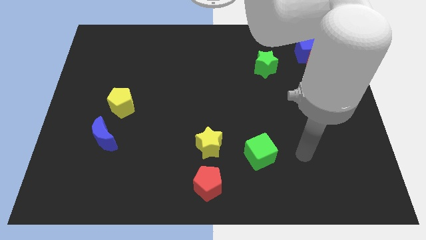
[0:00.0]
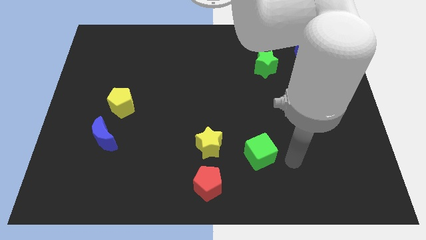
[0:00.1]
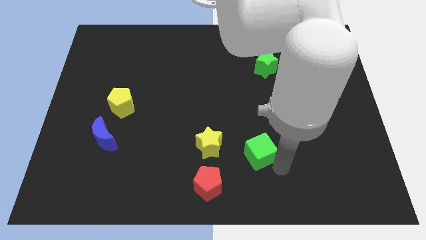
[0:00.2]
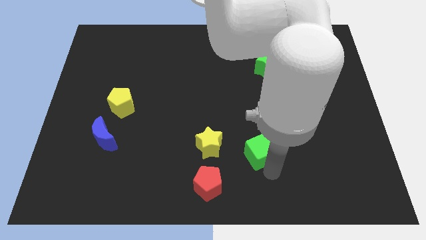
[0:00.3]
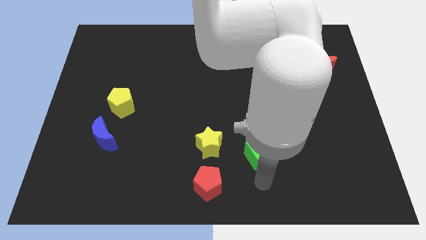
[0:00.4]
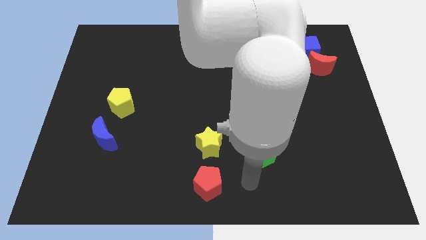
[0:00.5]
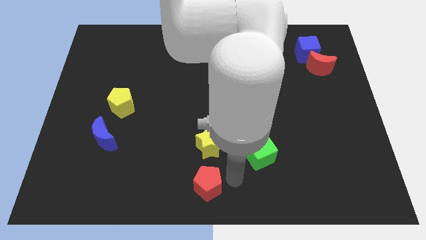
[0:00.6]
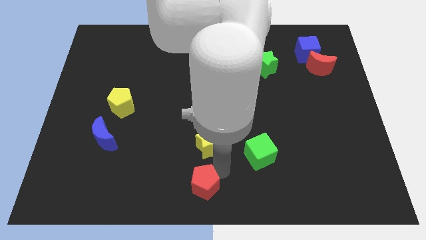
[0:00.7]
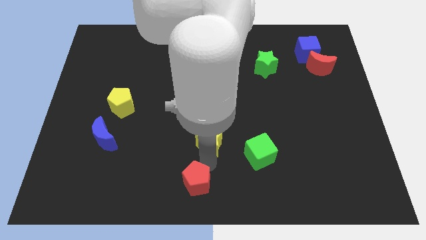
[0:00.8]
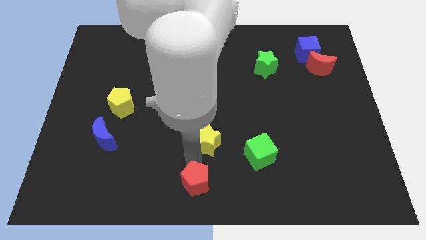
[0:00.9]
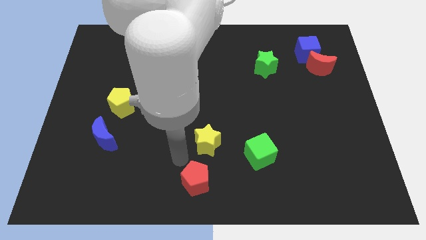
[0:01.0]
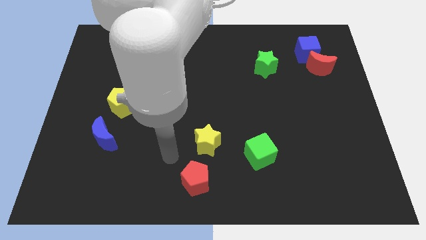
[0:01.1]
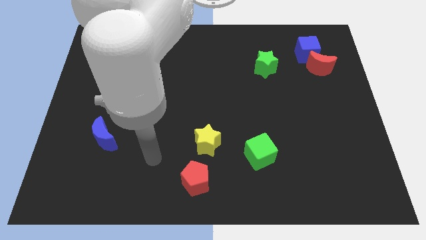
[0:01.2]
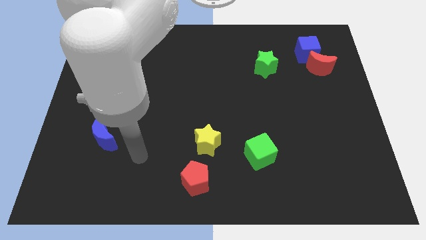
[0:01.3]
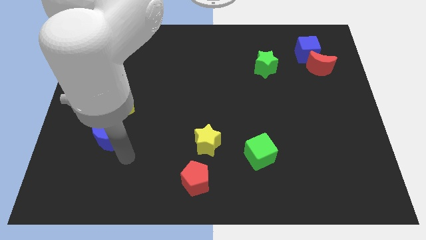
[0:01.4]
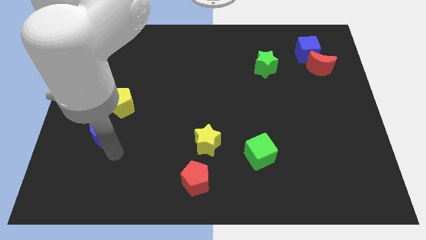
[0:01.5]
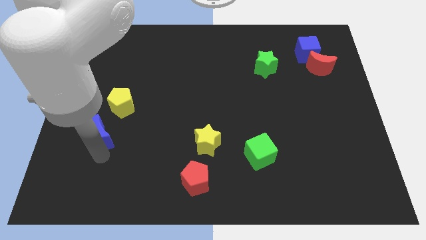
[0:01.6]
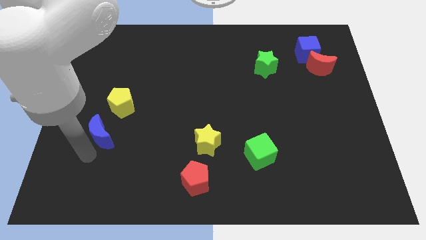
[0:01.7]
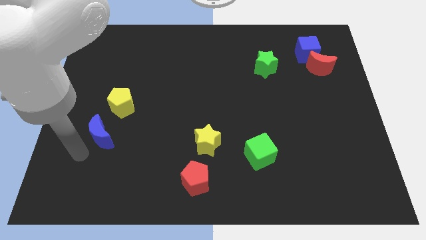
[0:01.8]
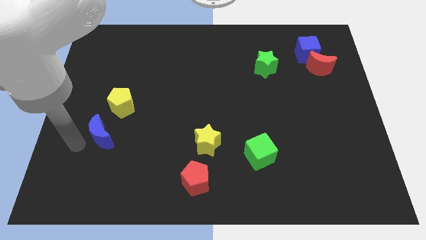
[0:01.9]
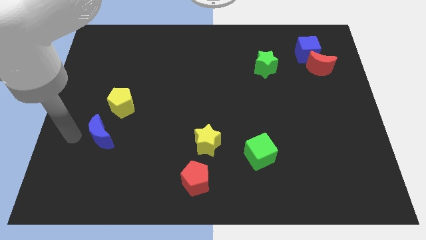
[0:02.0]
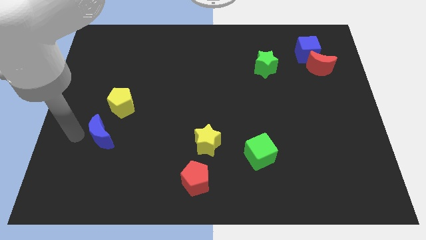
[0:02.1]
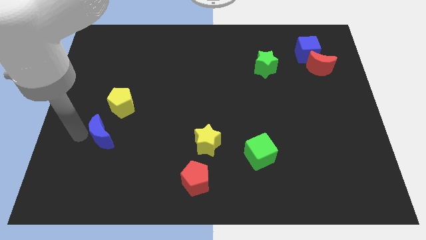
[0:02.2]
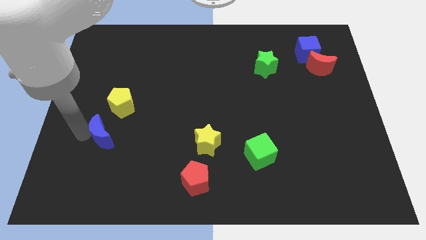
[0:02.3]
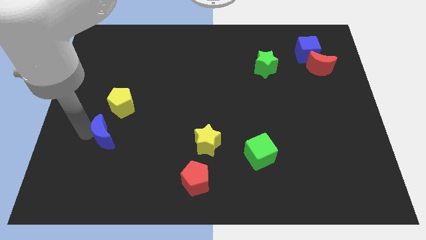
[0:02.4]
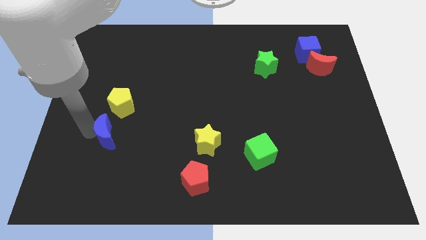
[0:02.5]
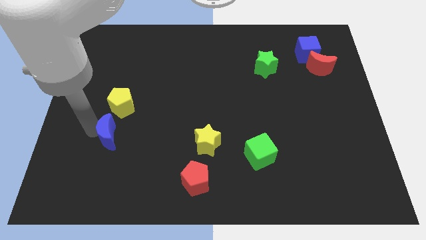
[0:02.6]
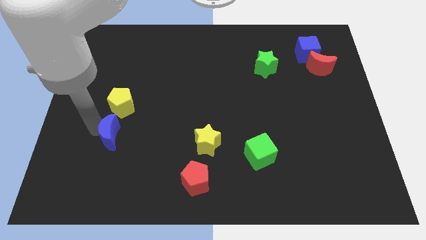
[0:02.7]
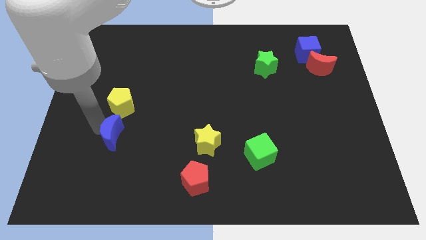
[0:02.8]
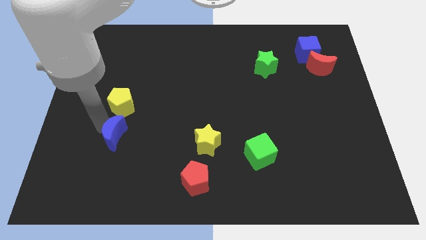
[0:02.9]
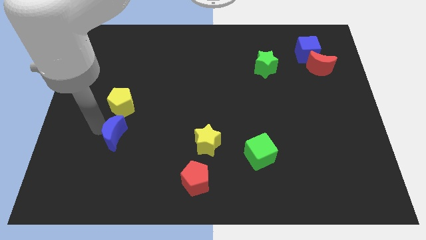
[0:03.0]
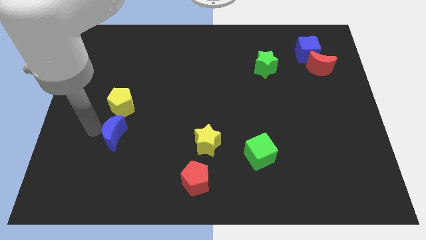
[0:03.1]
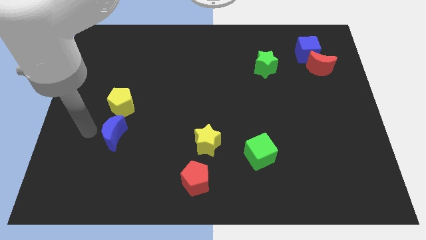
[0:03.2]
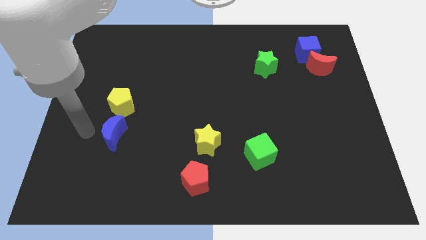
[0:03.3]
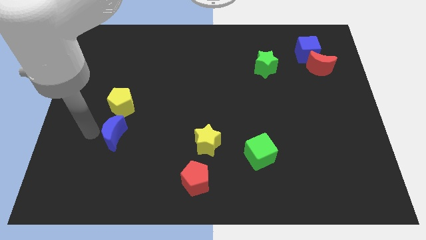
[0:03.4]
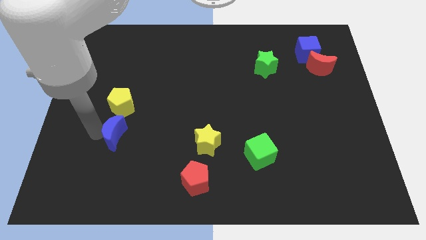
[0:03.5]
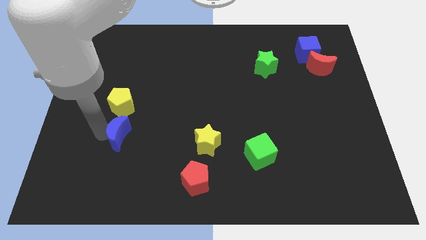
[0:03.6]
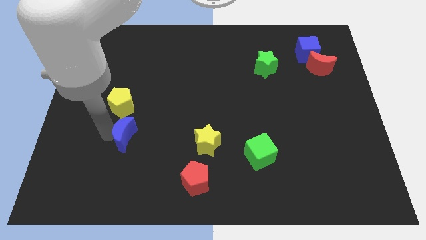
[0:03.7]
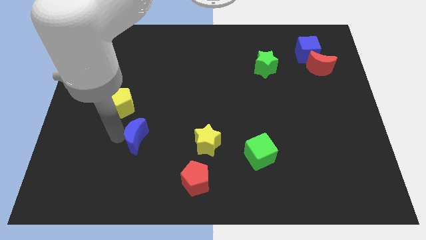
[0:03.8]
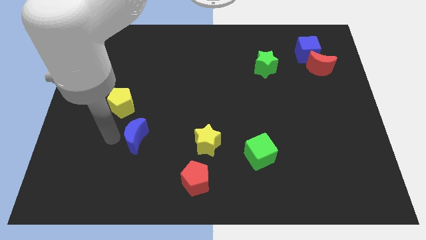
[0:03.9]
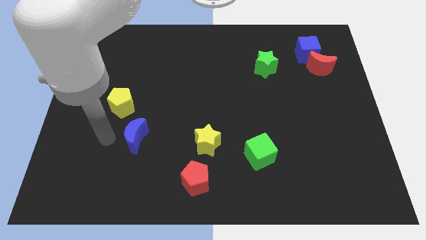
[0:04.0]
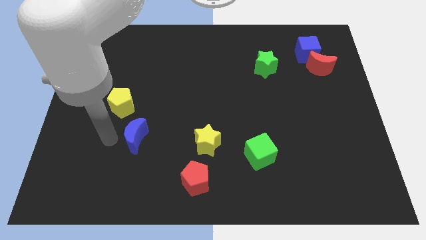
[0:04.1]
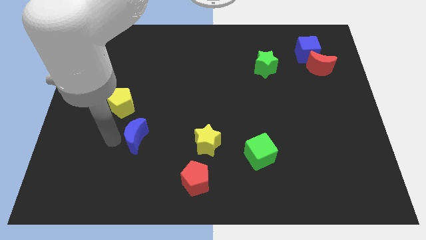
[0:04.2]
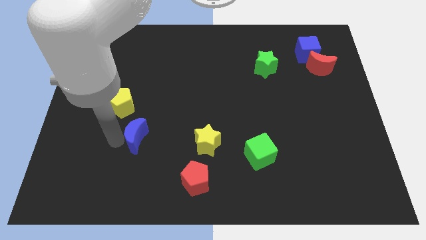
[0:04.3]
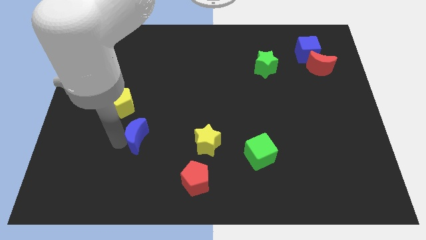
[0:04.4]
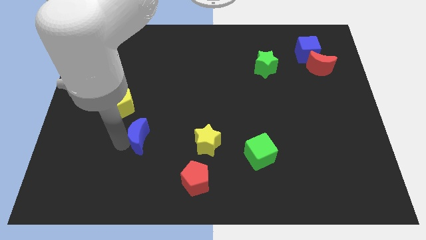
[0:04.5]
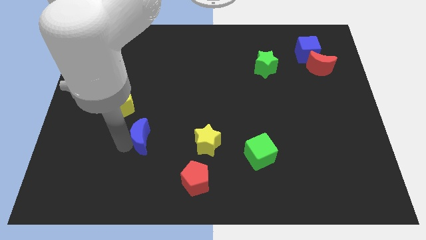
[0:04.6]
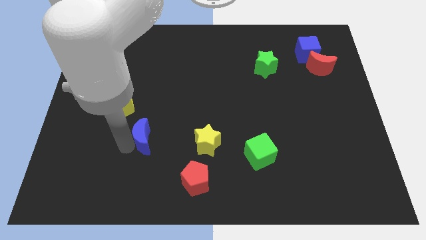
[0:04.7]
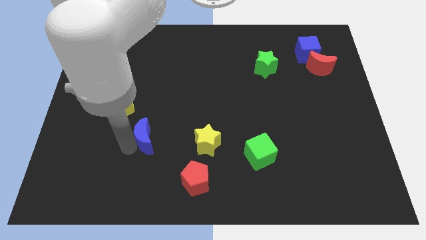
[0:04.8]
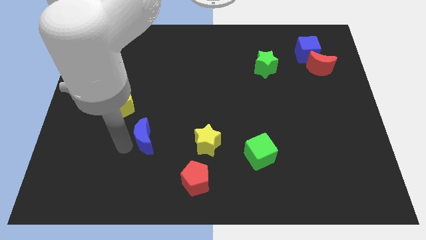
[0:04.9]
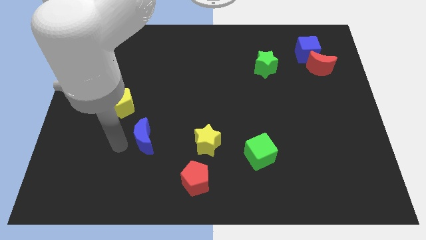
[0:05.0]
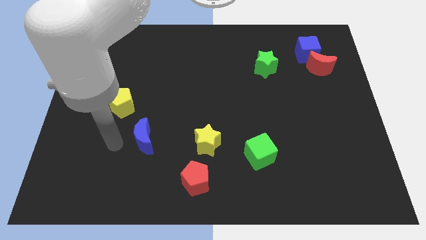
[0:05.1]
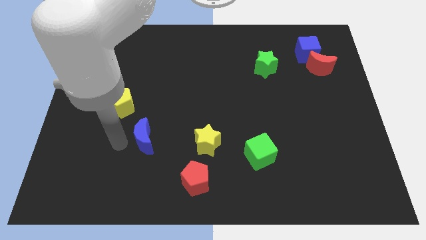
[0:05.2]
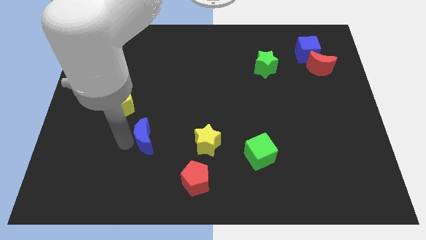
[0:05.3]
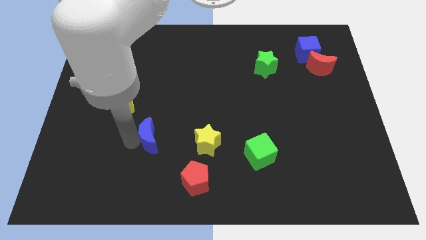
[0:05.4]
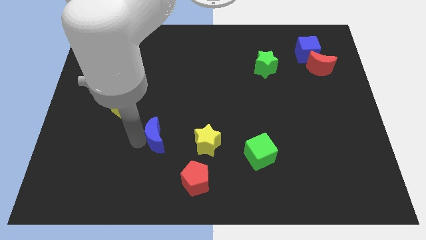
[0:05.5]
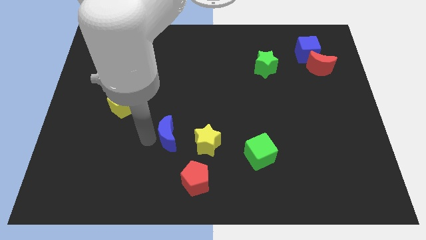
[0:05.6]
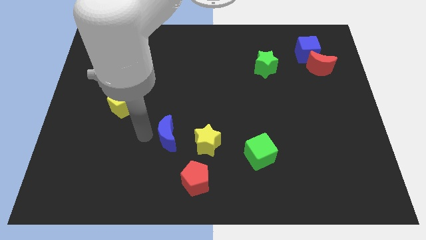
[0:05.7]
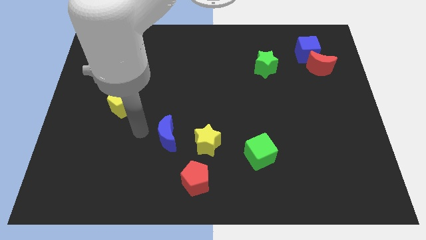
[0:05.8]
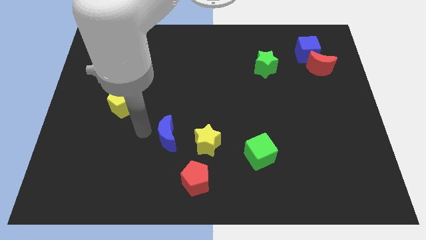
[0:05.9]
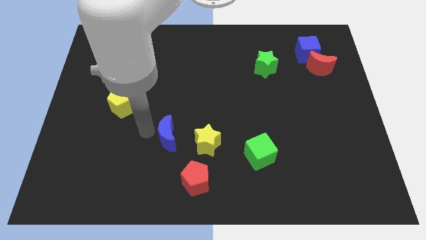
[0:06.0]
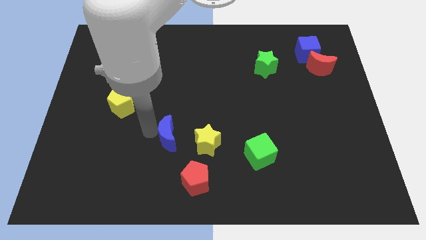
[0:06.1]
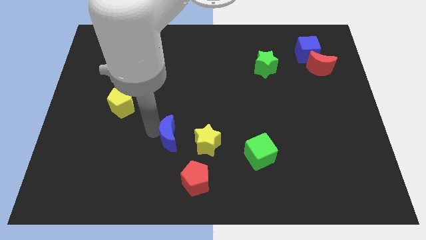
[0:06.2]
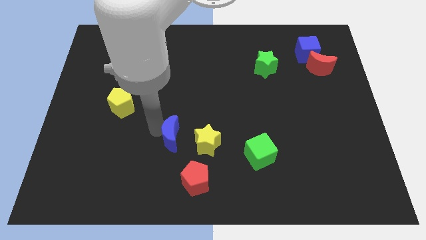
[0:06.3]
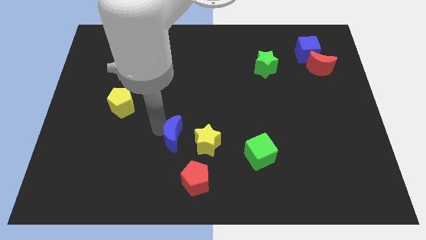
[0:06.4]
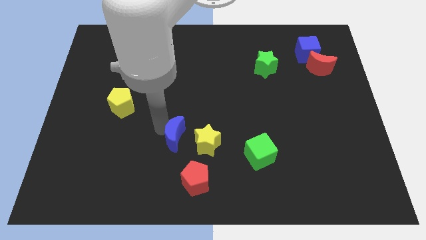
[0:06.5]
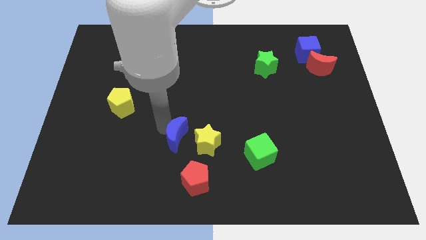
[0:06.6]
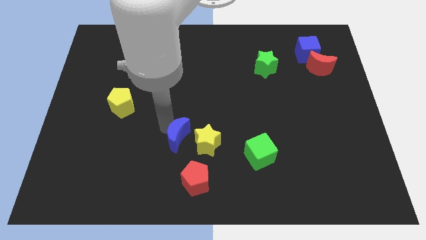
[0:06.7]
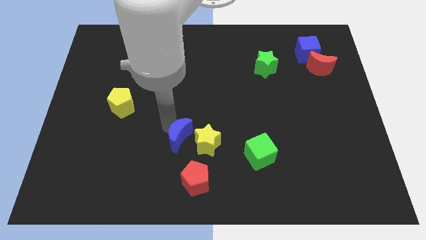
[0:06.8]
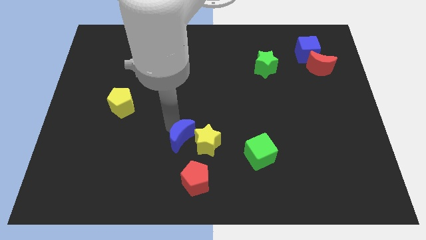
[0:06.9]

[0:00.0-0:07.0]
move the blue moon towards the yellow star

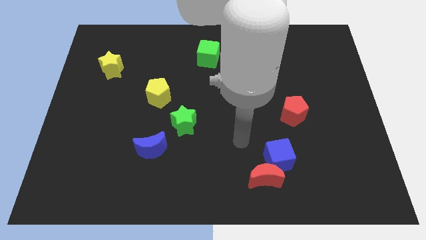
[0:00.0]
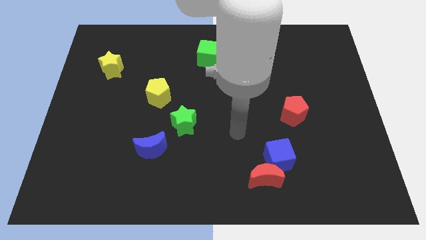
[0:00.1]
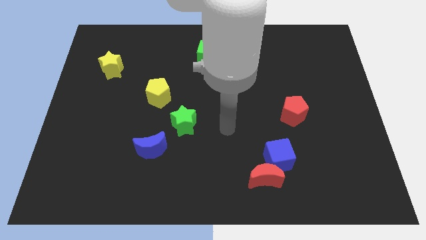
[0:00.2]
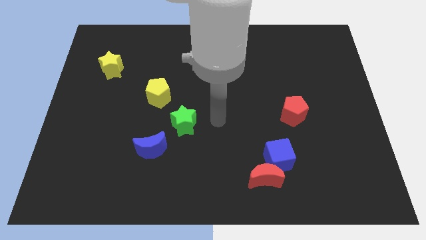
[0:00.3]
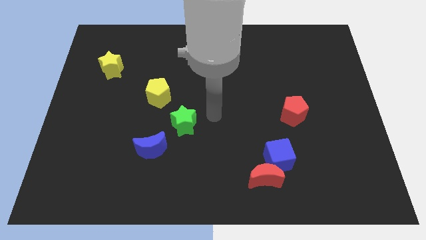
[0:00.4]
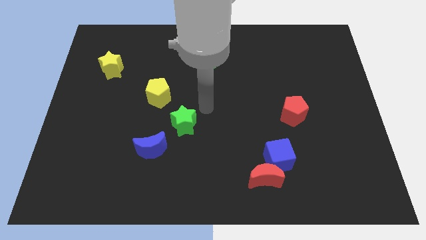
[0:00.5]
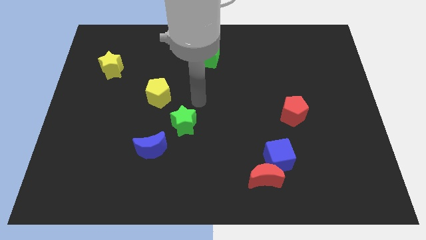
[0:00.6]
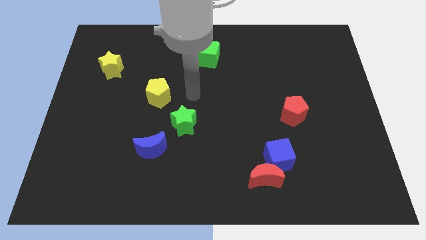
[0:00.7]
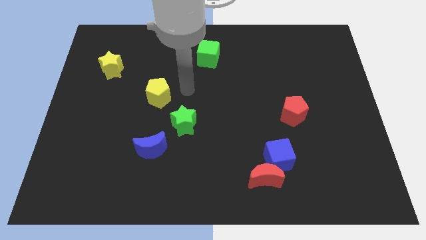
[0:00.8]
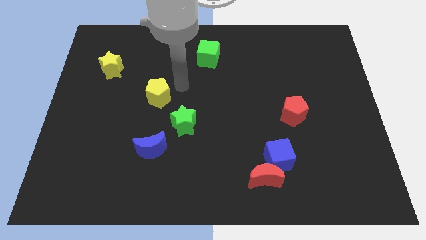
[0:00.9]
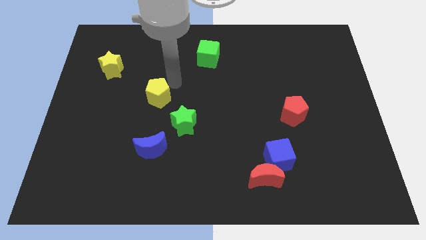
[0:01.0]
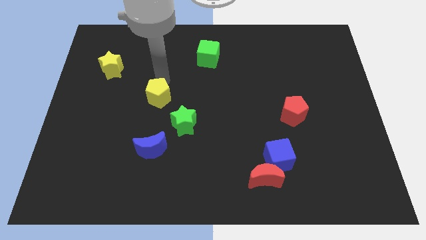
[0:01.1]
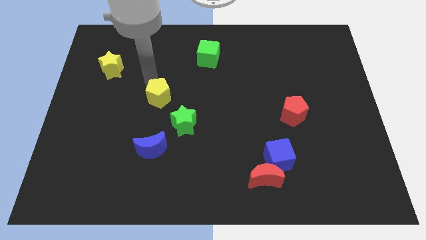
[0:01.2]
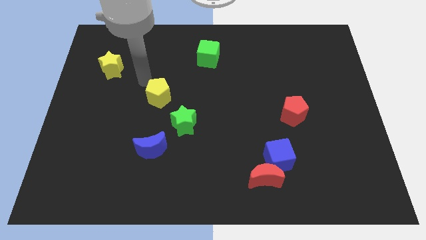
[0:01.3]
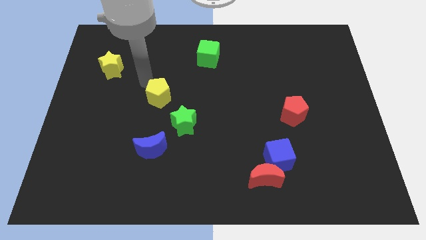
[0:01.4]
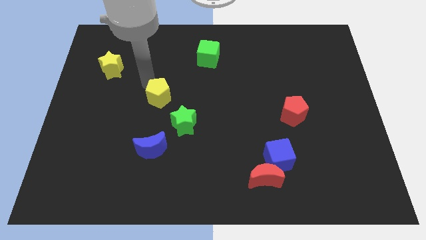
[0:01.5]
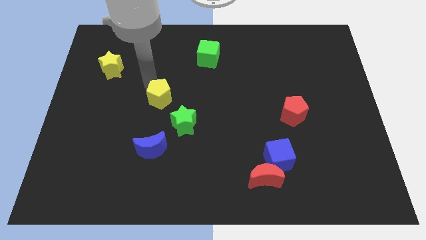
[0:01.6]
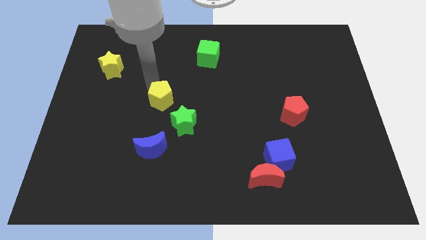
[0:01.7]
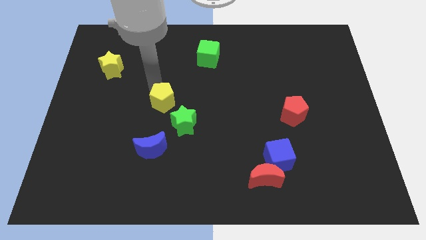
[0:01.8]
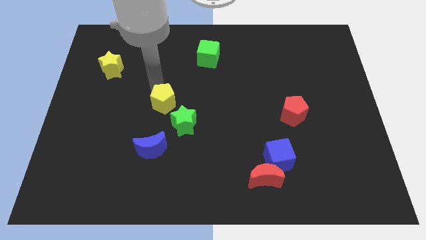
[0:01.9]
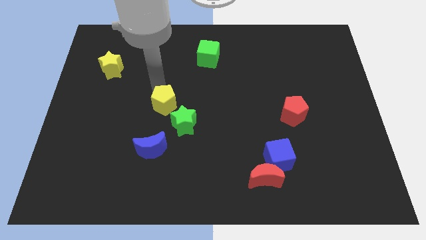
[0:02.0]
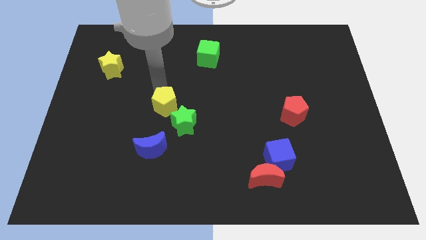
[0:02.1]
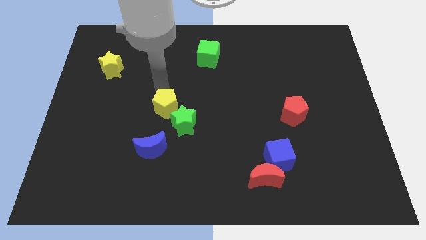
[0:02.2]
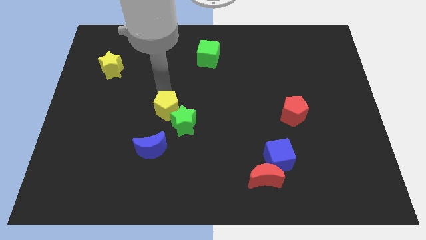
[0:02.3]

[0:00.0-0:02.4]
push the yellow pentagon to the green star
